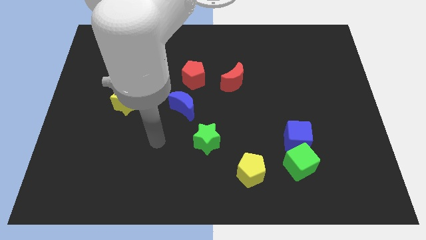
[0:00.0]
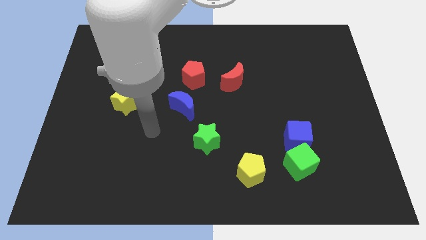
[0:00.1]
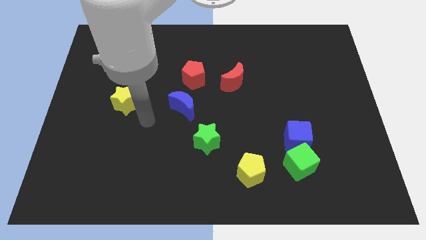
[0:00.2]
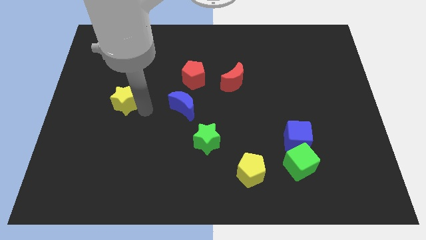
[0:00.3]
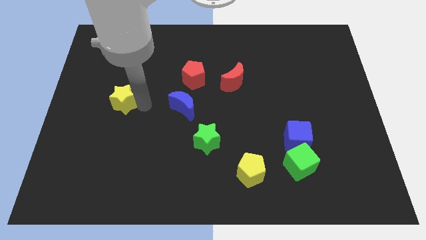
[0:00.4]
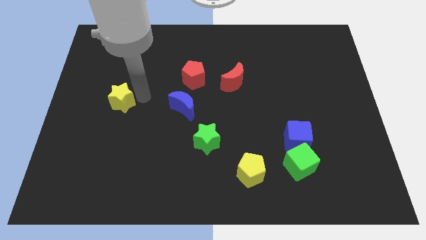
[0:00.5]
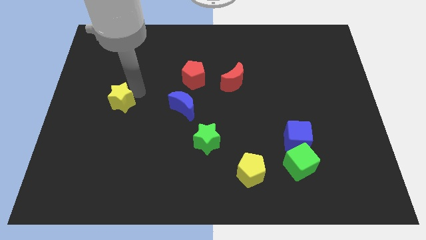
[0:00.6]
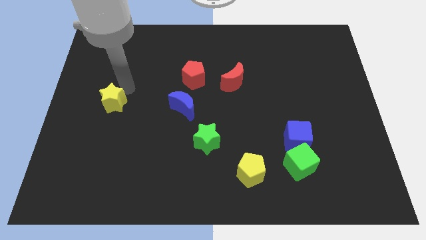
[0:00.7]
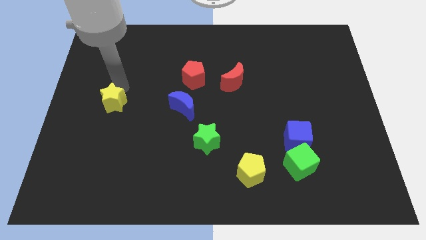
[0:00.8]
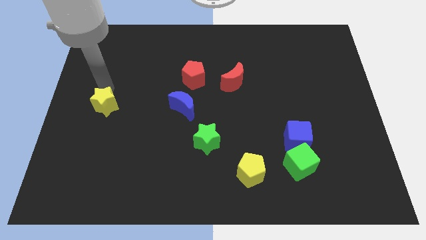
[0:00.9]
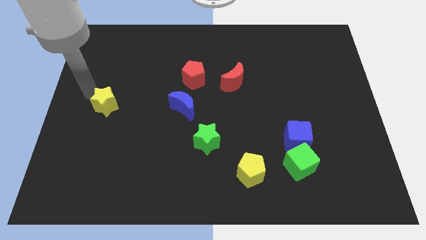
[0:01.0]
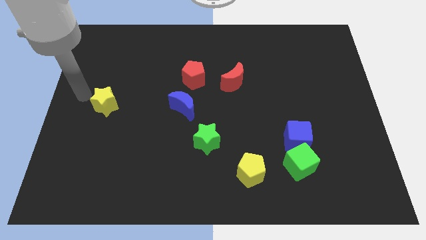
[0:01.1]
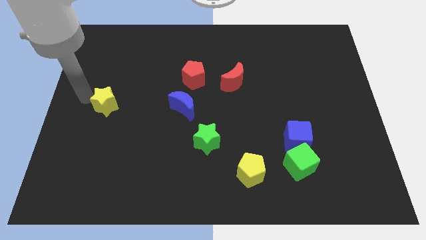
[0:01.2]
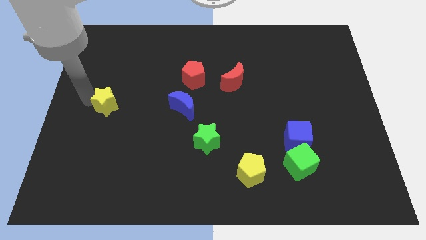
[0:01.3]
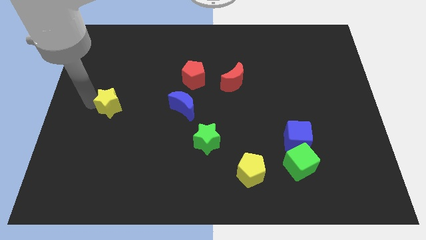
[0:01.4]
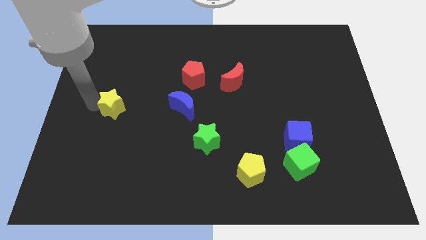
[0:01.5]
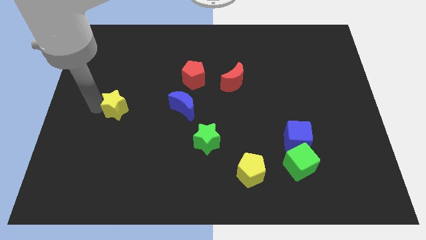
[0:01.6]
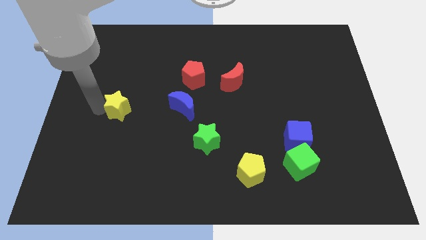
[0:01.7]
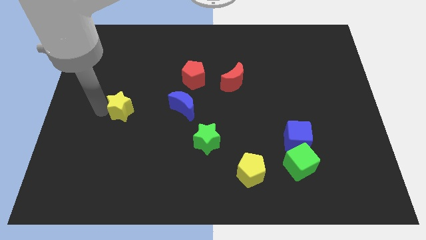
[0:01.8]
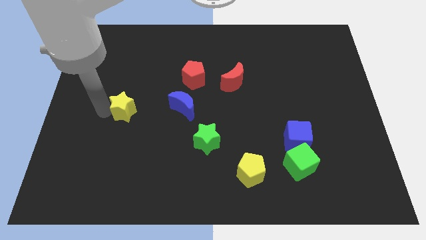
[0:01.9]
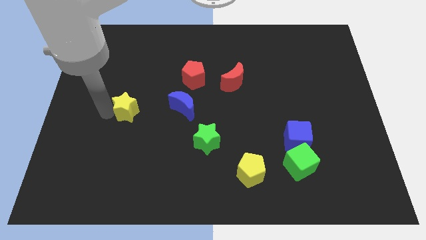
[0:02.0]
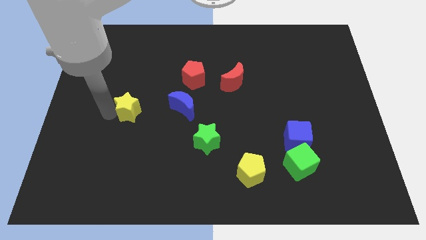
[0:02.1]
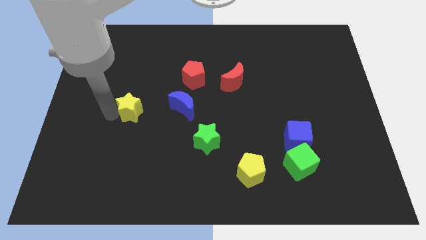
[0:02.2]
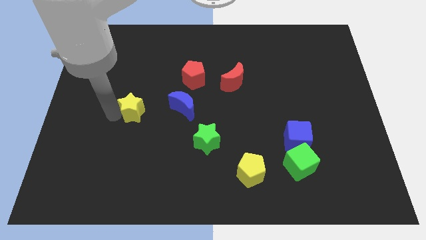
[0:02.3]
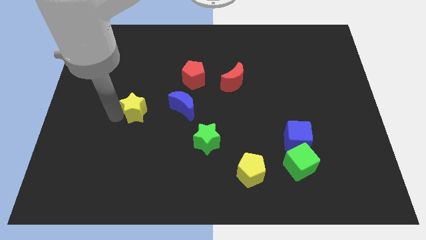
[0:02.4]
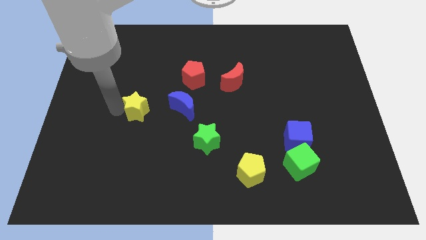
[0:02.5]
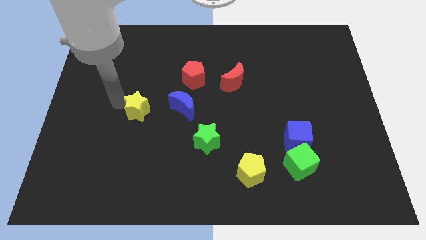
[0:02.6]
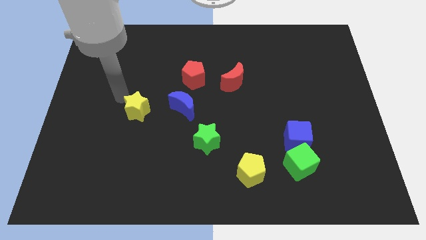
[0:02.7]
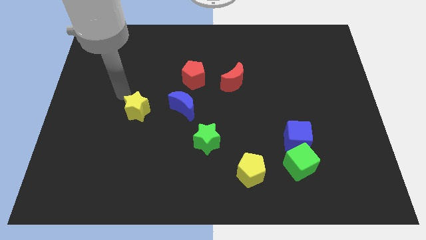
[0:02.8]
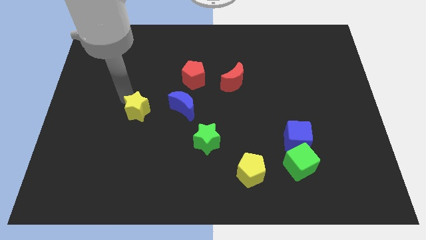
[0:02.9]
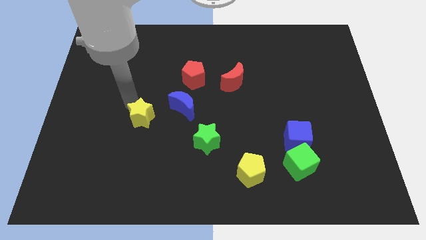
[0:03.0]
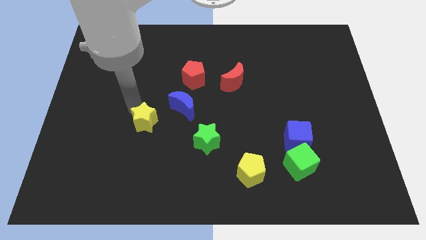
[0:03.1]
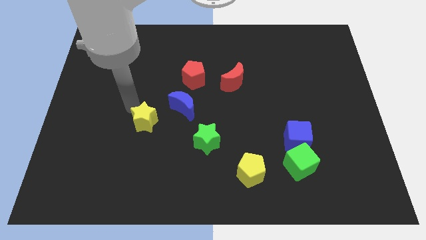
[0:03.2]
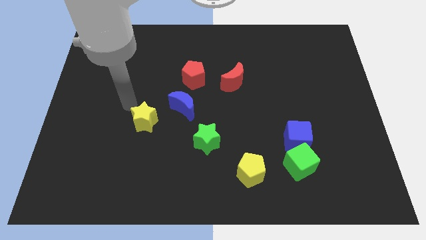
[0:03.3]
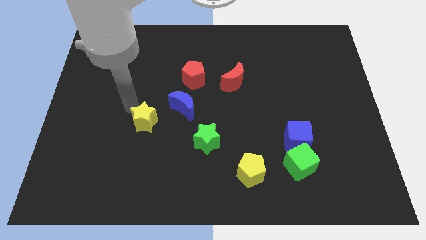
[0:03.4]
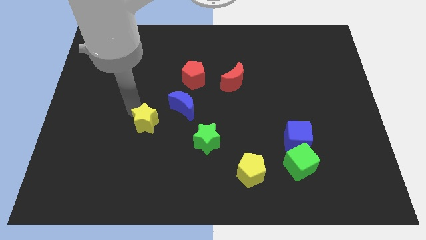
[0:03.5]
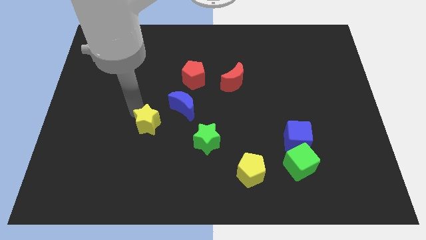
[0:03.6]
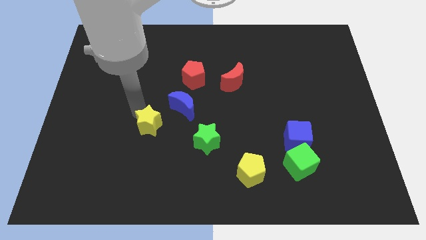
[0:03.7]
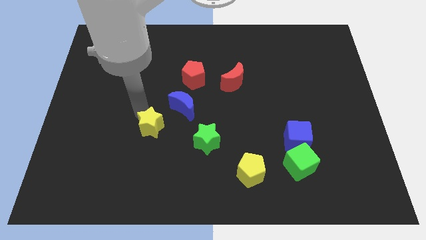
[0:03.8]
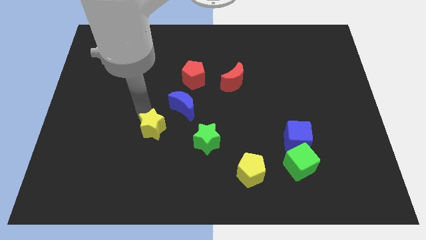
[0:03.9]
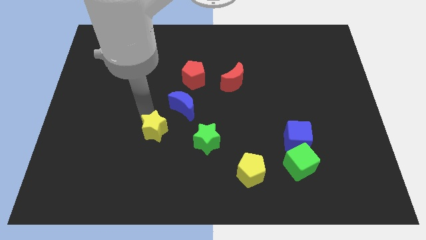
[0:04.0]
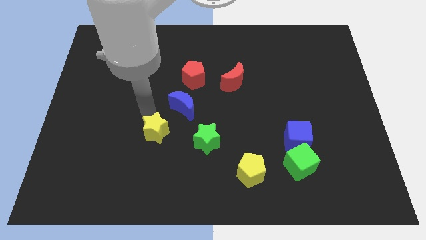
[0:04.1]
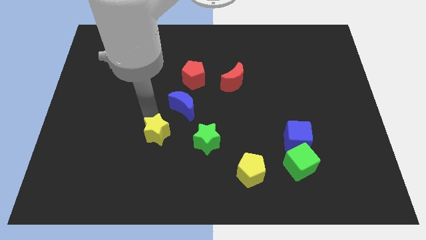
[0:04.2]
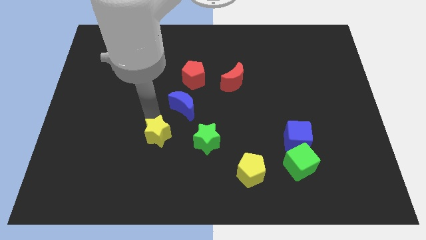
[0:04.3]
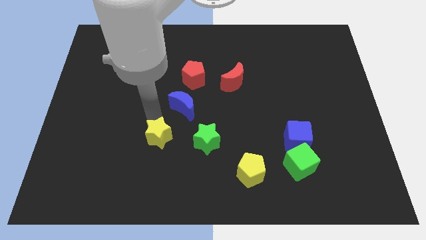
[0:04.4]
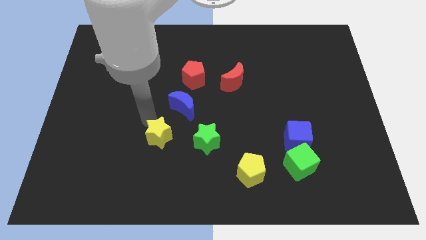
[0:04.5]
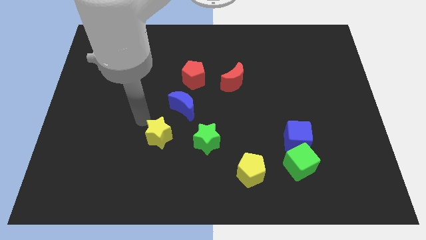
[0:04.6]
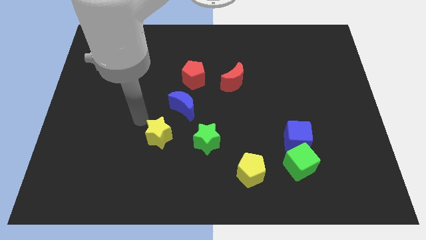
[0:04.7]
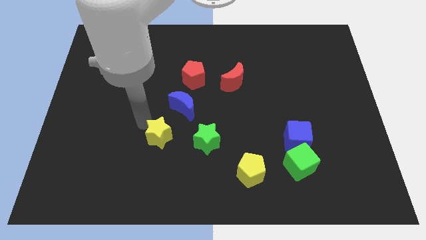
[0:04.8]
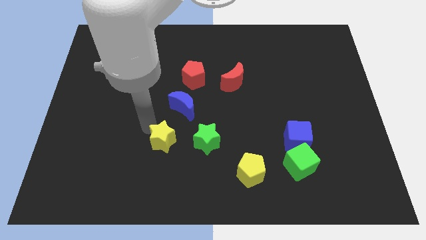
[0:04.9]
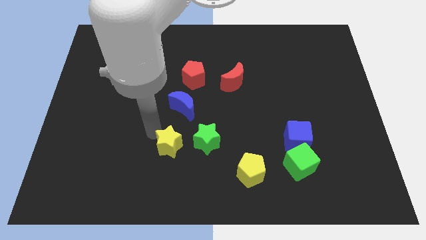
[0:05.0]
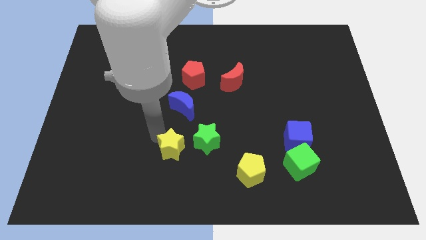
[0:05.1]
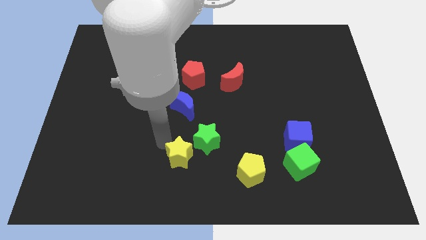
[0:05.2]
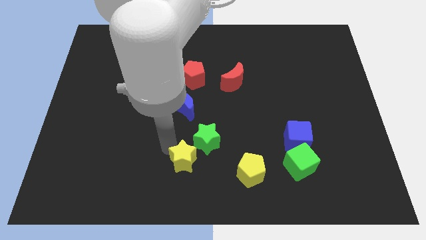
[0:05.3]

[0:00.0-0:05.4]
put the yellow star left of the yellow pentagon

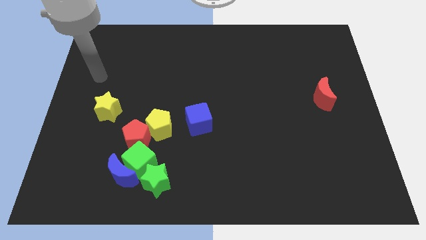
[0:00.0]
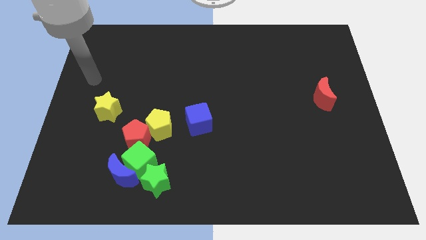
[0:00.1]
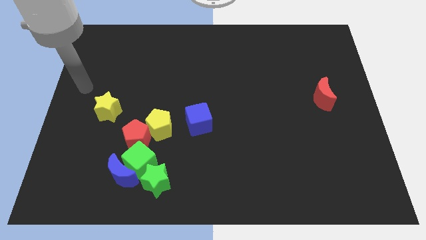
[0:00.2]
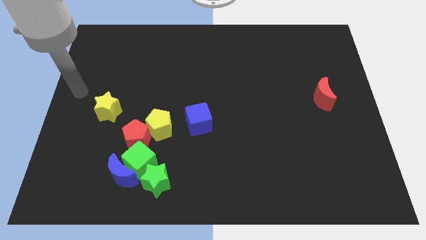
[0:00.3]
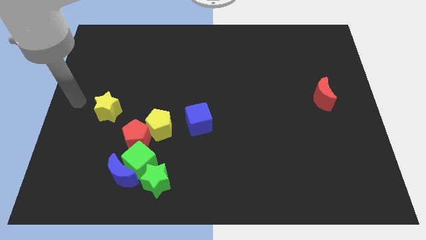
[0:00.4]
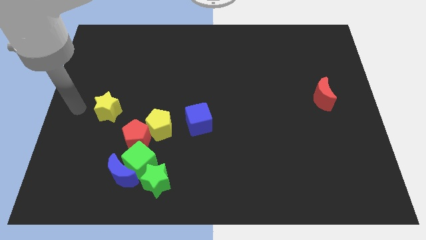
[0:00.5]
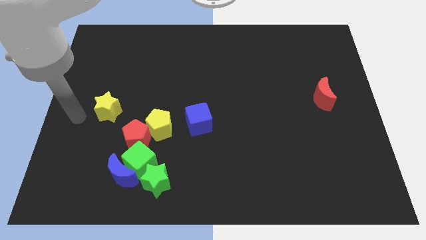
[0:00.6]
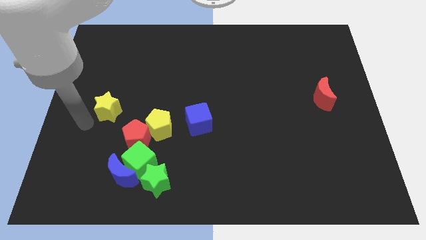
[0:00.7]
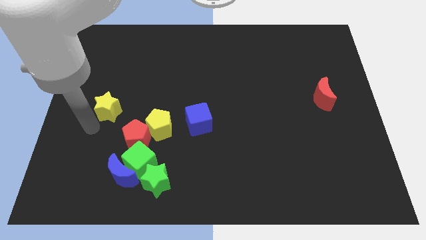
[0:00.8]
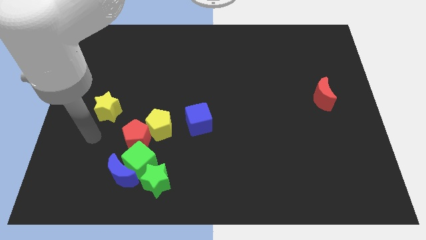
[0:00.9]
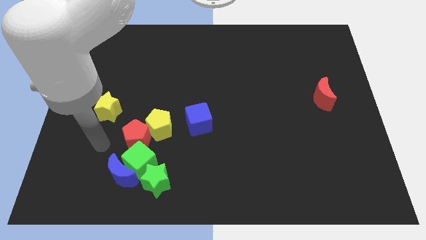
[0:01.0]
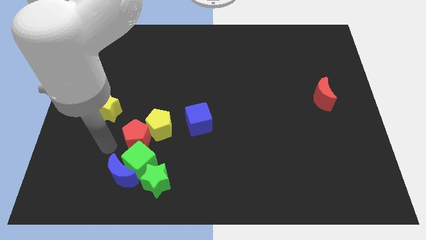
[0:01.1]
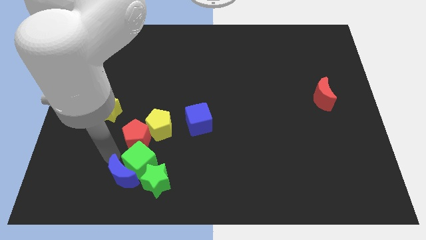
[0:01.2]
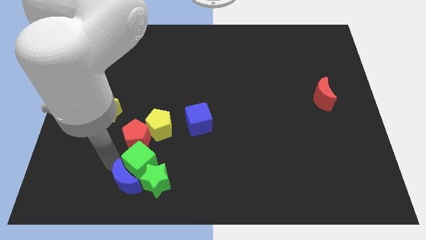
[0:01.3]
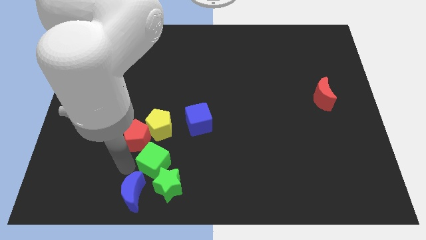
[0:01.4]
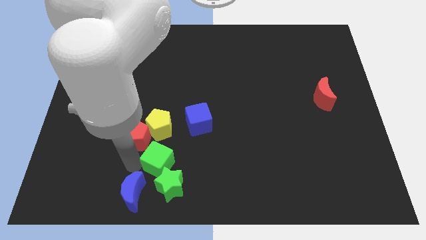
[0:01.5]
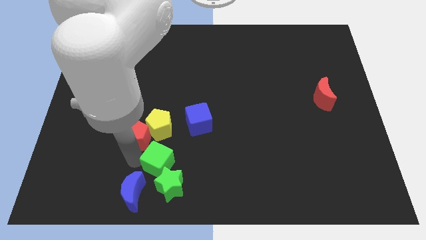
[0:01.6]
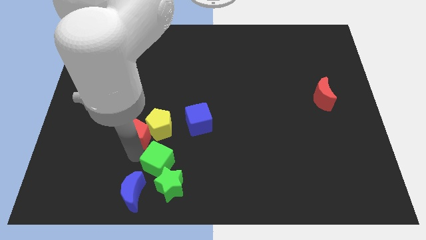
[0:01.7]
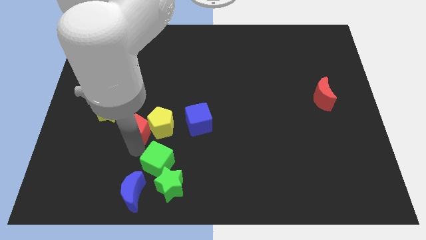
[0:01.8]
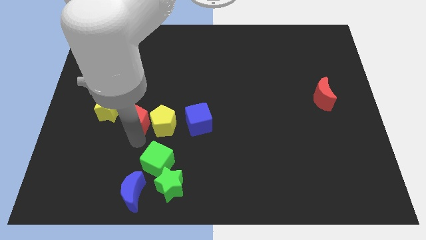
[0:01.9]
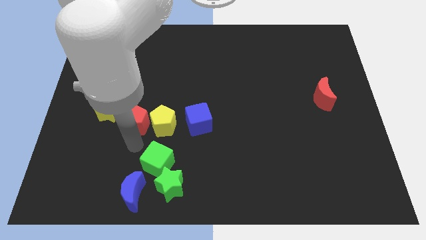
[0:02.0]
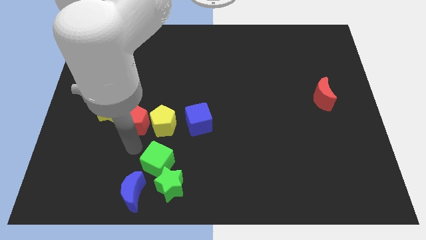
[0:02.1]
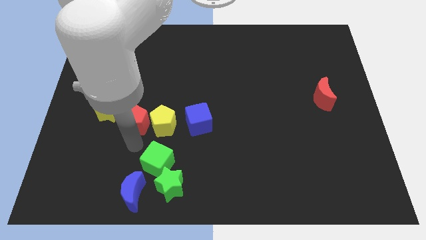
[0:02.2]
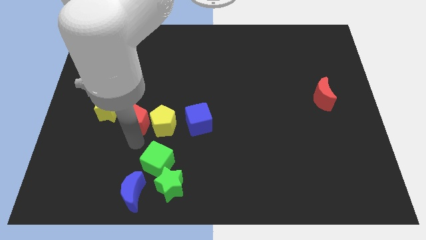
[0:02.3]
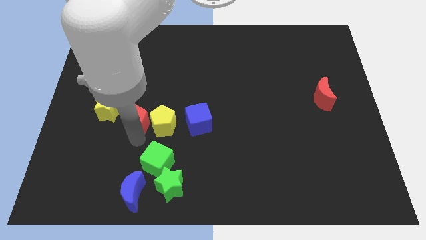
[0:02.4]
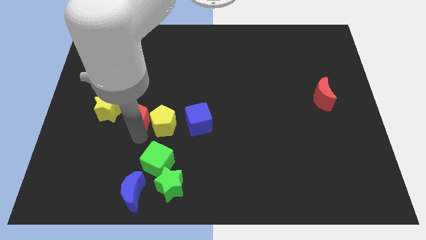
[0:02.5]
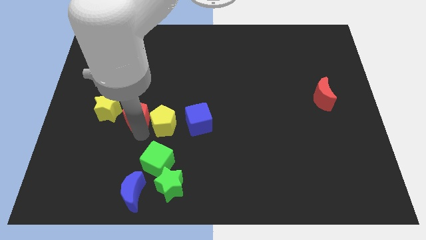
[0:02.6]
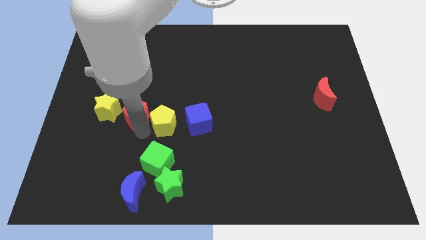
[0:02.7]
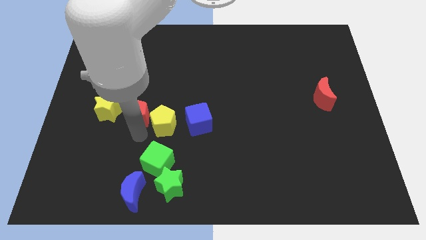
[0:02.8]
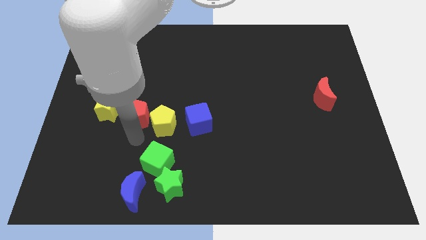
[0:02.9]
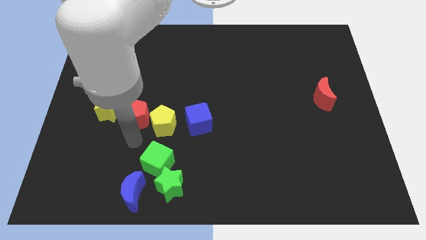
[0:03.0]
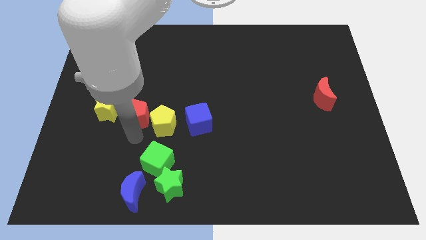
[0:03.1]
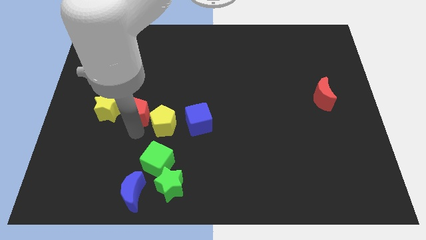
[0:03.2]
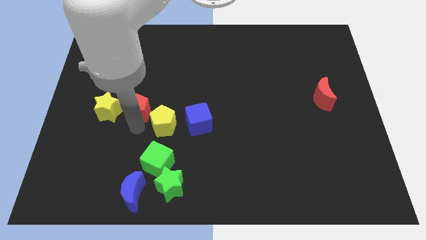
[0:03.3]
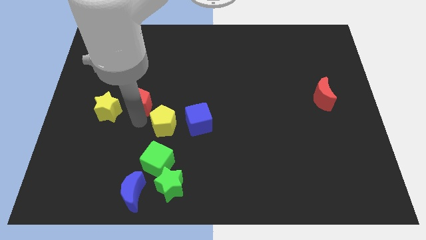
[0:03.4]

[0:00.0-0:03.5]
put the red pentagon diagonally up and to the right of the yellow star
